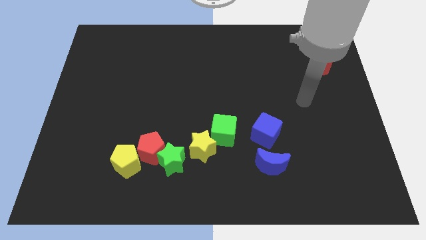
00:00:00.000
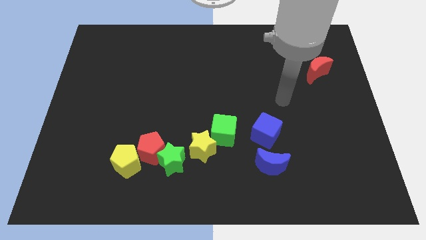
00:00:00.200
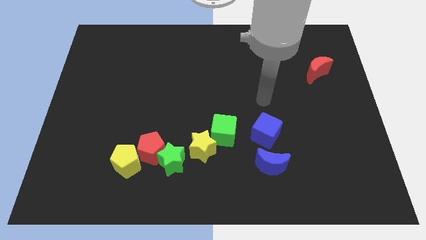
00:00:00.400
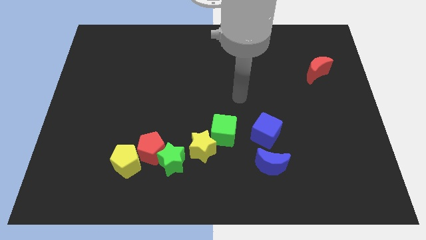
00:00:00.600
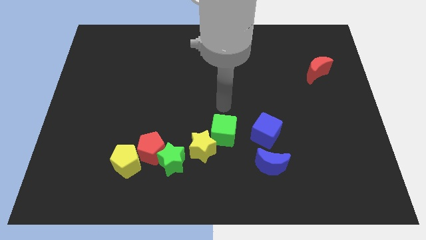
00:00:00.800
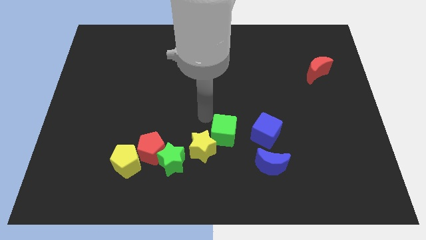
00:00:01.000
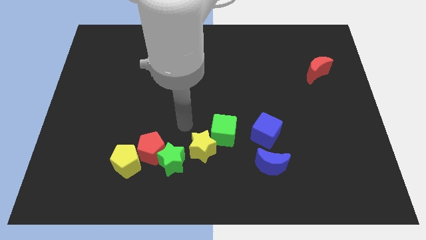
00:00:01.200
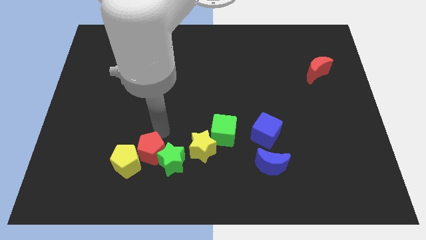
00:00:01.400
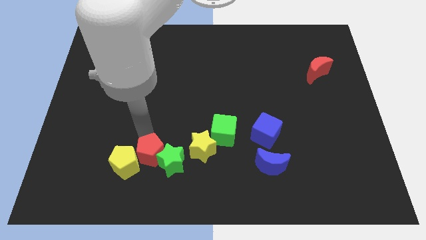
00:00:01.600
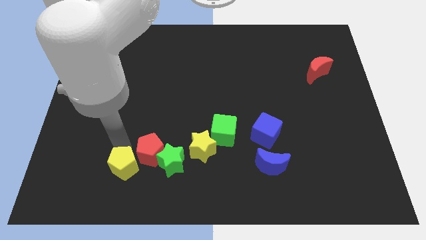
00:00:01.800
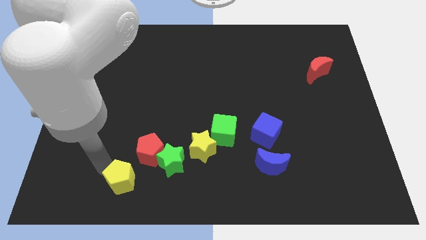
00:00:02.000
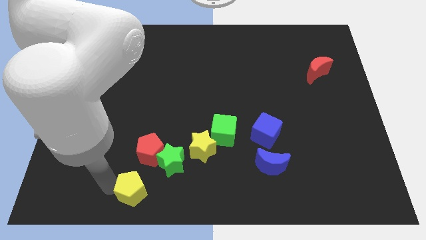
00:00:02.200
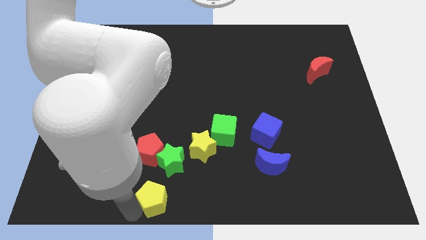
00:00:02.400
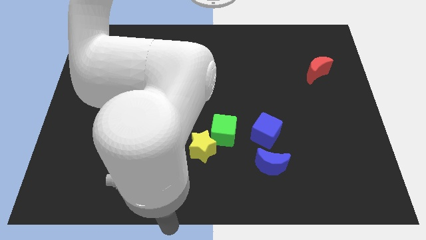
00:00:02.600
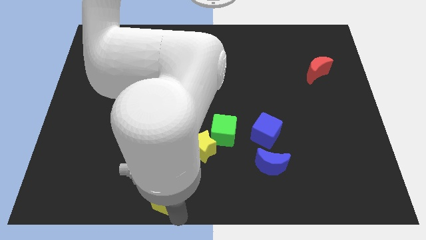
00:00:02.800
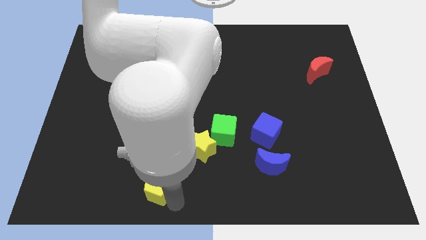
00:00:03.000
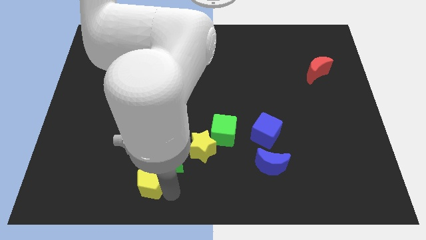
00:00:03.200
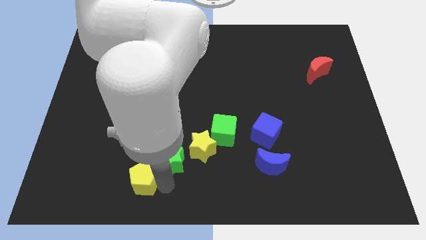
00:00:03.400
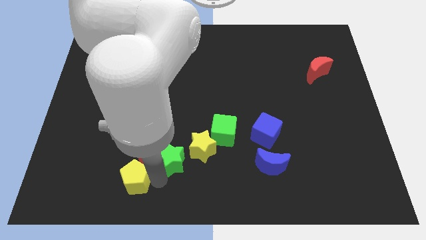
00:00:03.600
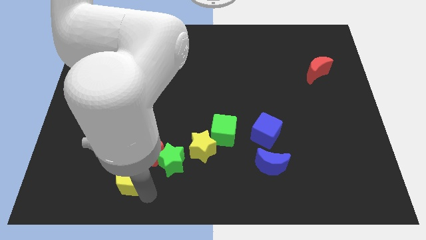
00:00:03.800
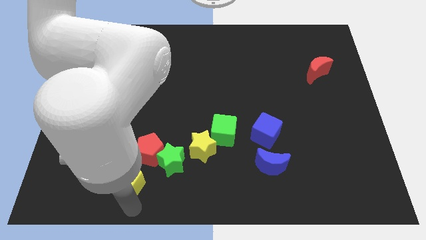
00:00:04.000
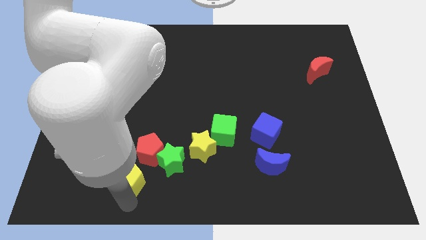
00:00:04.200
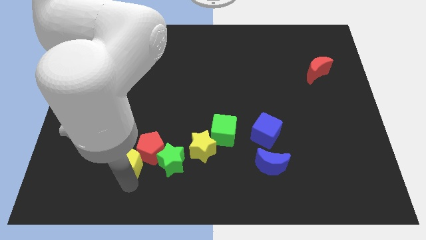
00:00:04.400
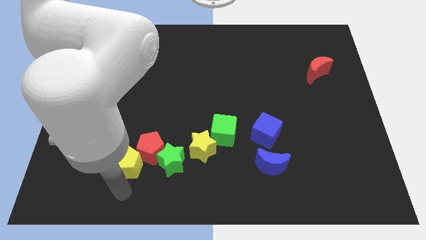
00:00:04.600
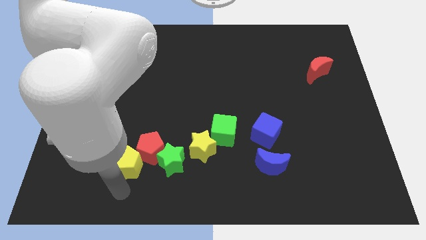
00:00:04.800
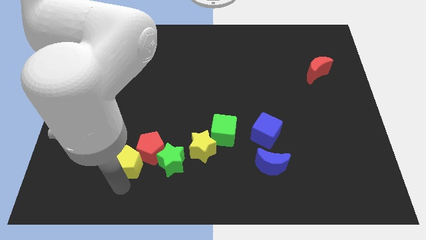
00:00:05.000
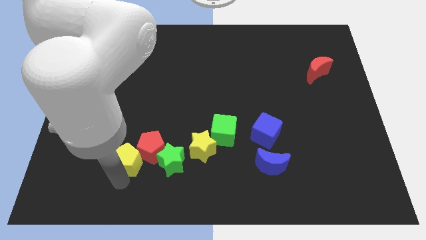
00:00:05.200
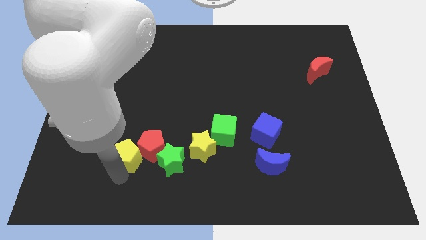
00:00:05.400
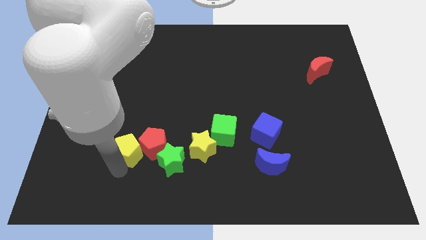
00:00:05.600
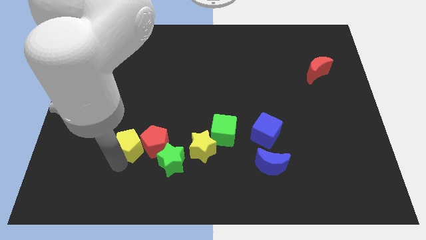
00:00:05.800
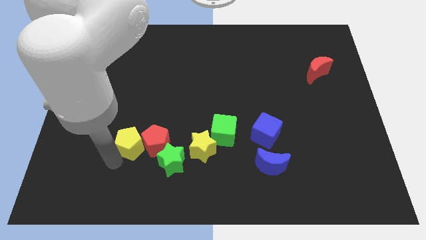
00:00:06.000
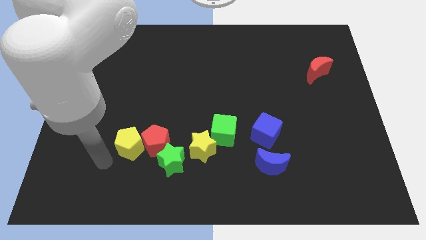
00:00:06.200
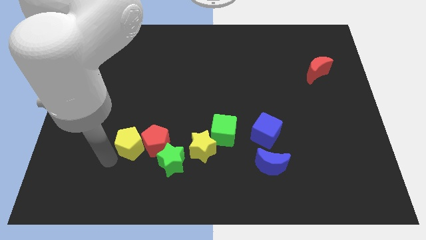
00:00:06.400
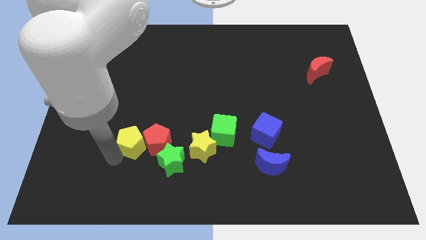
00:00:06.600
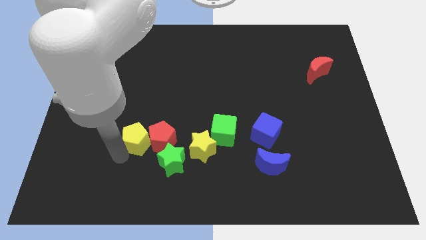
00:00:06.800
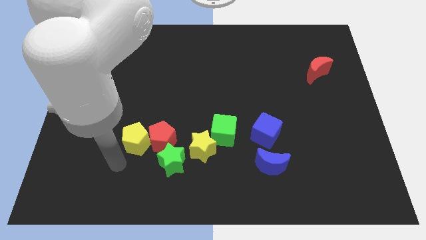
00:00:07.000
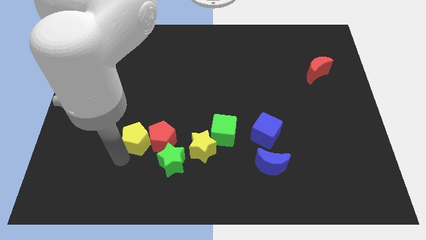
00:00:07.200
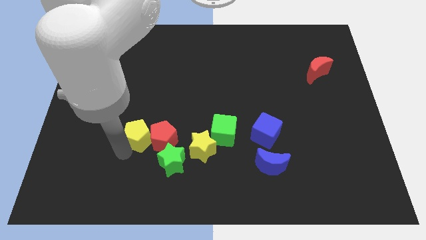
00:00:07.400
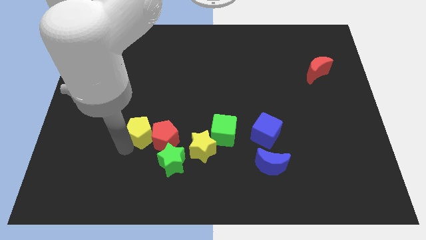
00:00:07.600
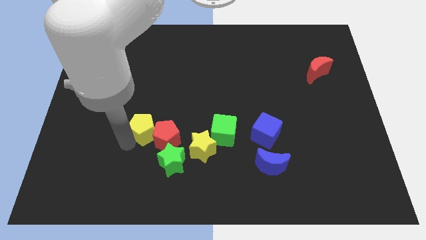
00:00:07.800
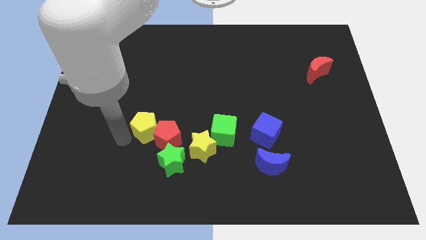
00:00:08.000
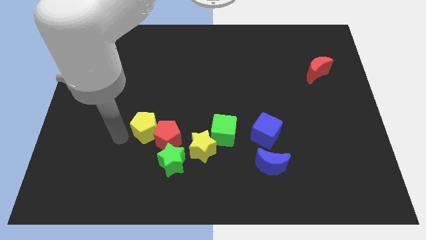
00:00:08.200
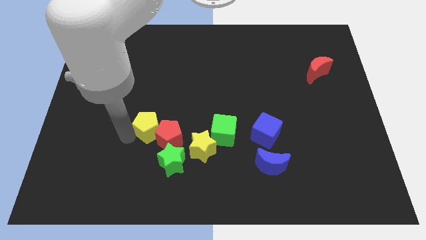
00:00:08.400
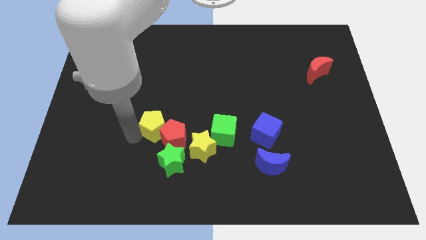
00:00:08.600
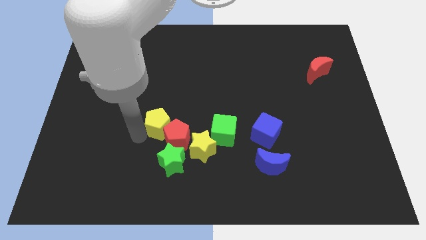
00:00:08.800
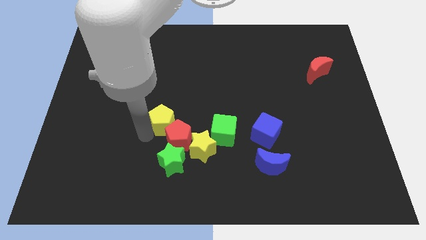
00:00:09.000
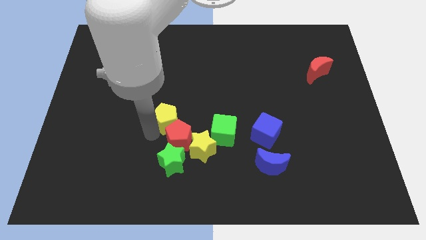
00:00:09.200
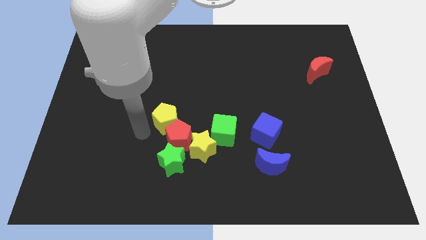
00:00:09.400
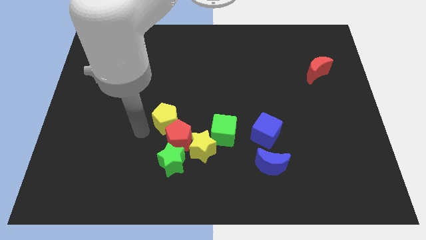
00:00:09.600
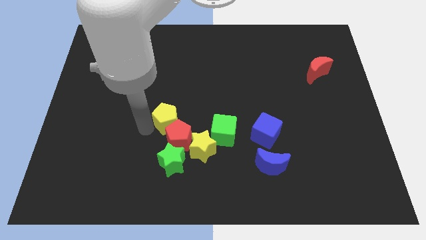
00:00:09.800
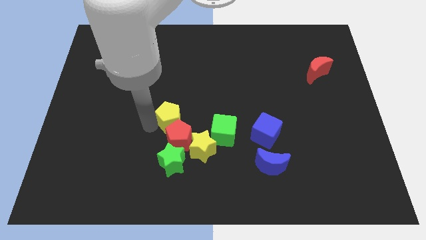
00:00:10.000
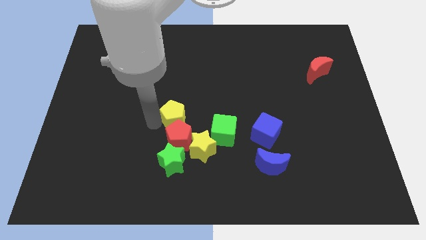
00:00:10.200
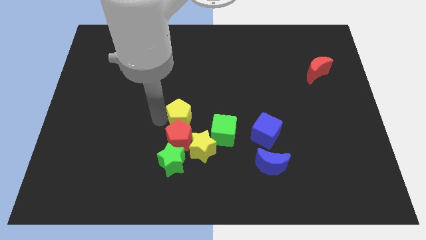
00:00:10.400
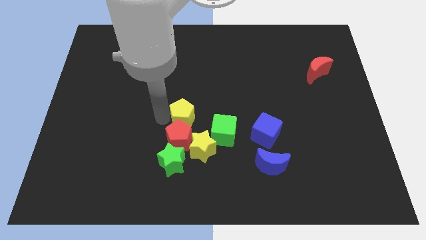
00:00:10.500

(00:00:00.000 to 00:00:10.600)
move the yellow pentagon to the top of the yellow star
